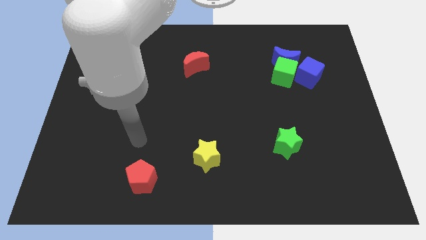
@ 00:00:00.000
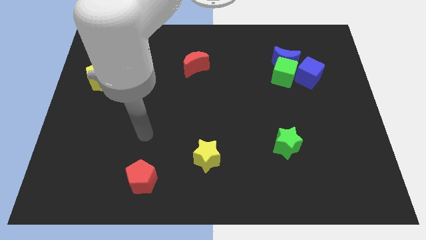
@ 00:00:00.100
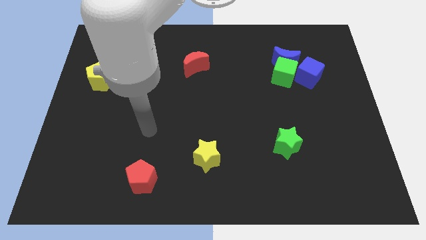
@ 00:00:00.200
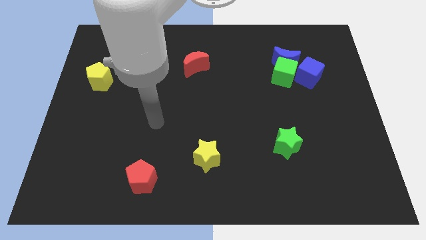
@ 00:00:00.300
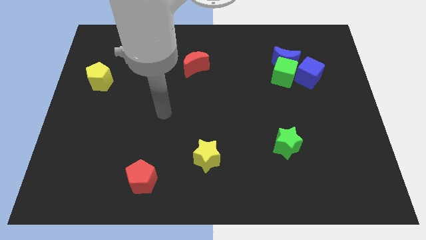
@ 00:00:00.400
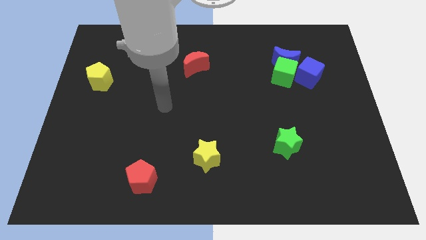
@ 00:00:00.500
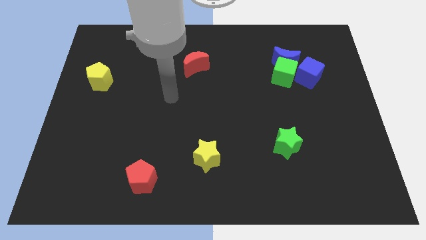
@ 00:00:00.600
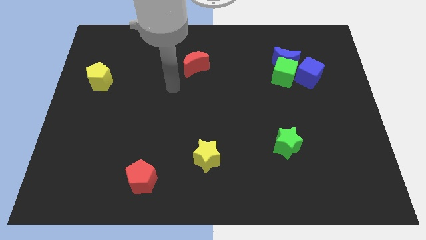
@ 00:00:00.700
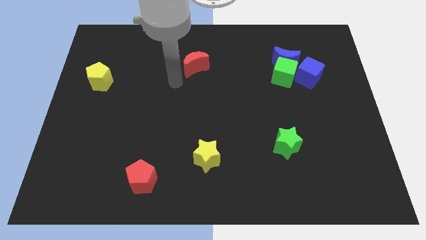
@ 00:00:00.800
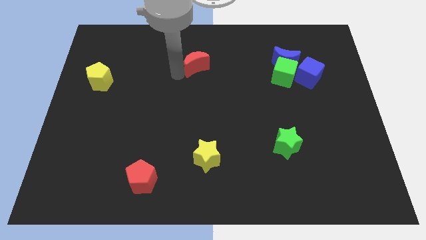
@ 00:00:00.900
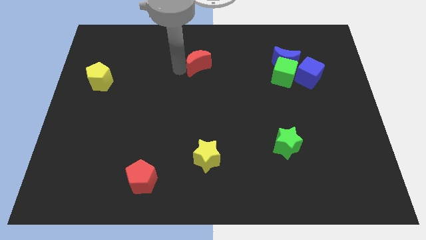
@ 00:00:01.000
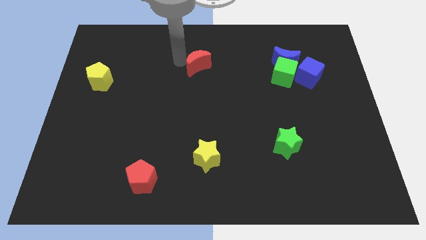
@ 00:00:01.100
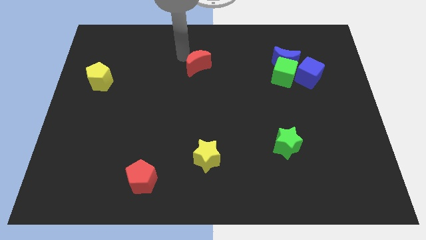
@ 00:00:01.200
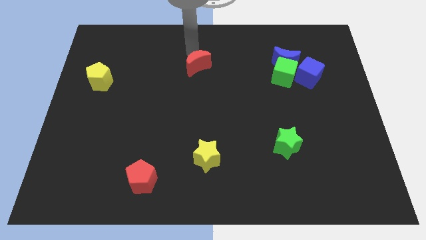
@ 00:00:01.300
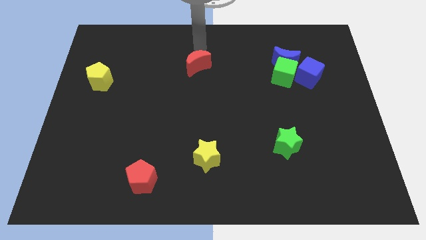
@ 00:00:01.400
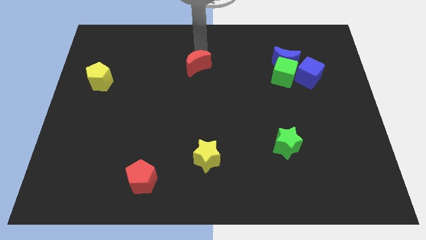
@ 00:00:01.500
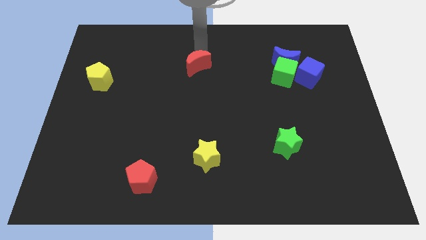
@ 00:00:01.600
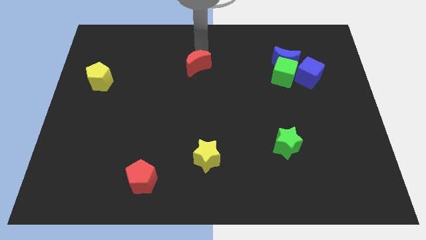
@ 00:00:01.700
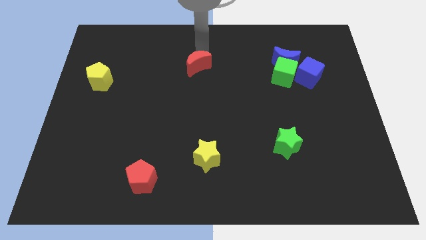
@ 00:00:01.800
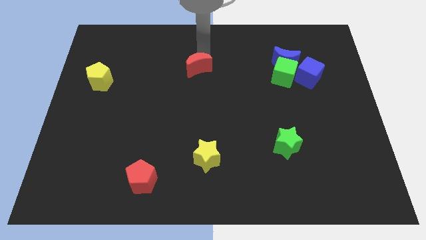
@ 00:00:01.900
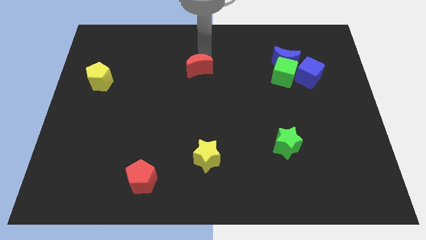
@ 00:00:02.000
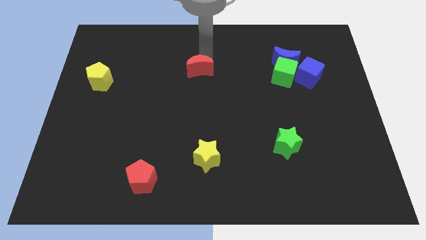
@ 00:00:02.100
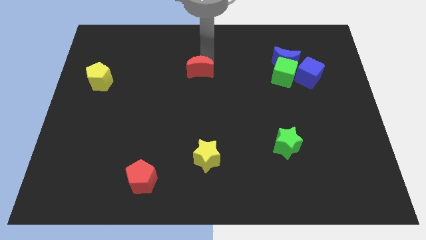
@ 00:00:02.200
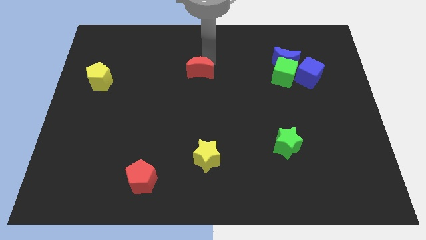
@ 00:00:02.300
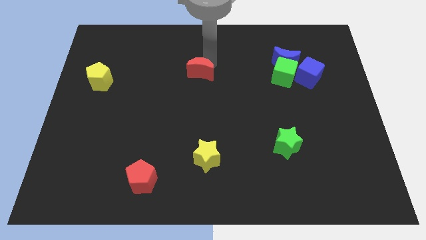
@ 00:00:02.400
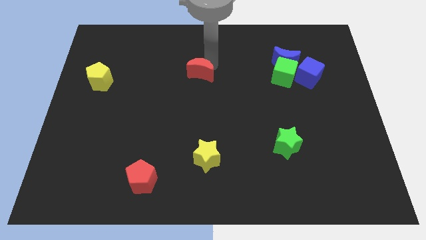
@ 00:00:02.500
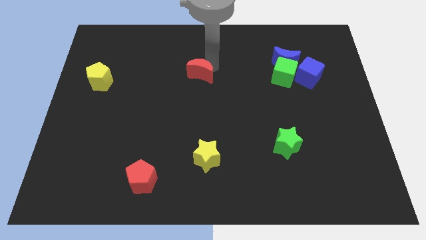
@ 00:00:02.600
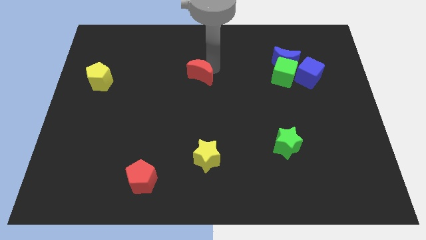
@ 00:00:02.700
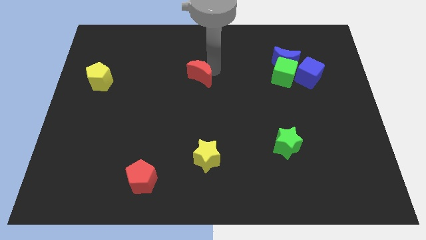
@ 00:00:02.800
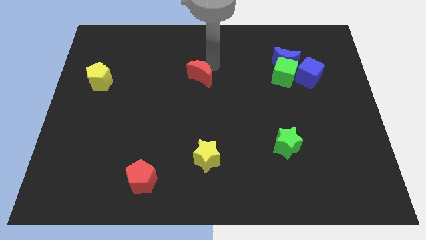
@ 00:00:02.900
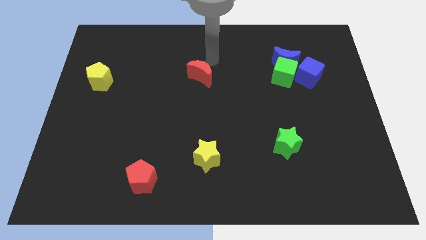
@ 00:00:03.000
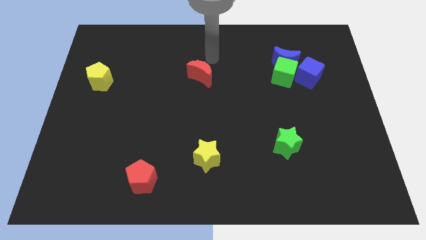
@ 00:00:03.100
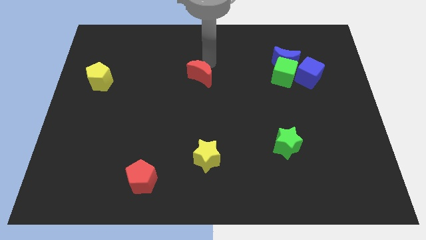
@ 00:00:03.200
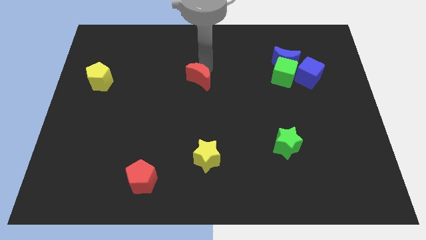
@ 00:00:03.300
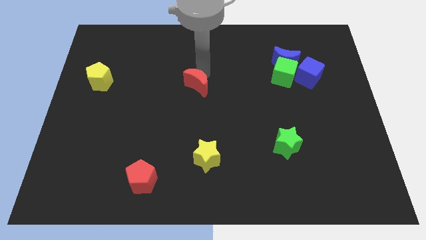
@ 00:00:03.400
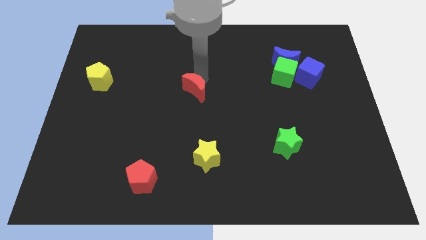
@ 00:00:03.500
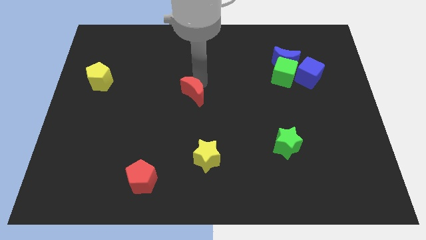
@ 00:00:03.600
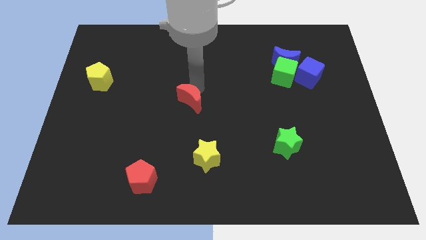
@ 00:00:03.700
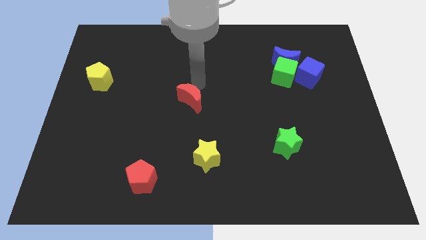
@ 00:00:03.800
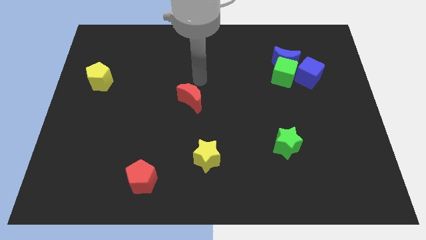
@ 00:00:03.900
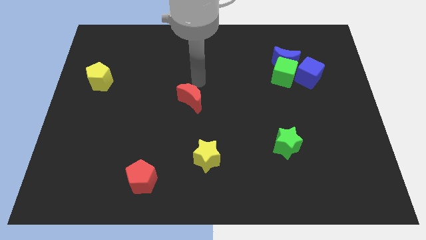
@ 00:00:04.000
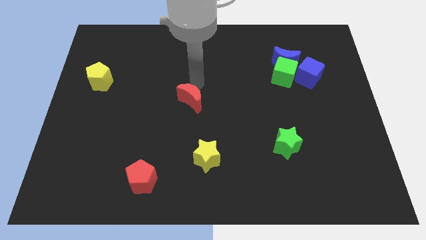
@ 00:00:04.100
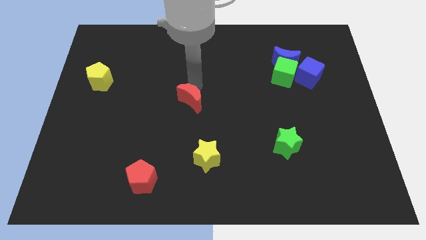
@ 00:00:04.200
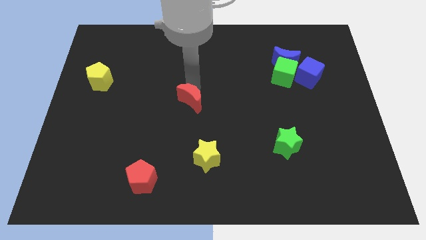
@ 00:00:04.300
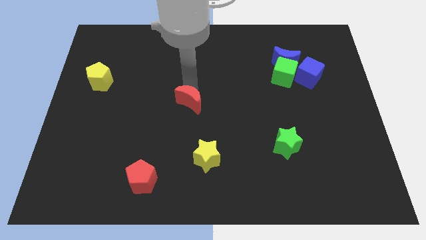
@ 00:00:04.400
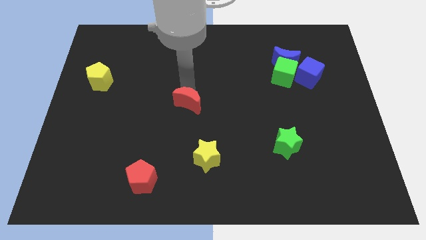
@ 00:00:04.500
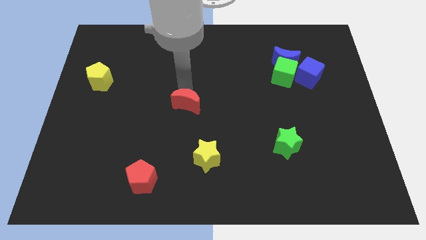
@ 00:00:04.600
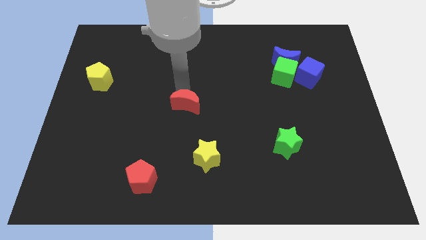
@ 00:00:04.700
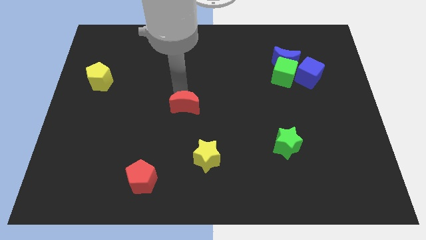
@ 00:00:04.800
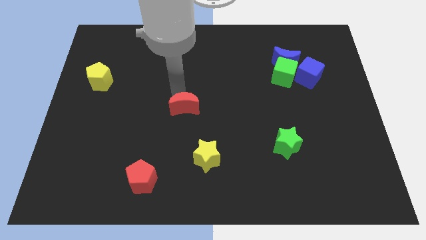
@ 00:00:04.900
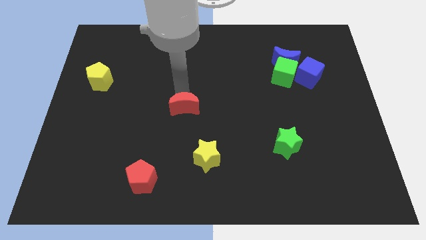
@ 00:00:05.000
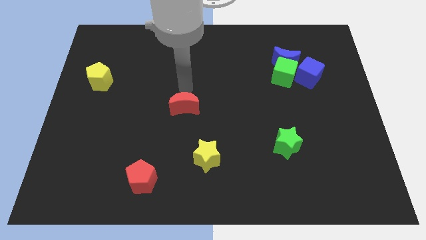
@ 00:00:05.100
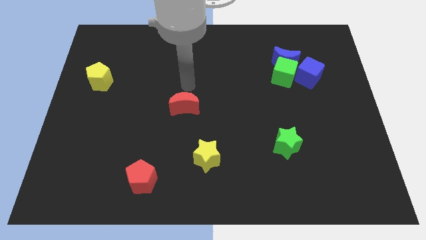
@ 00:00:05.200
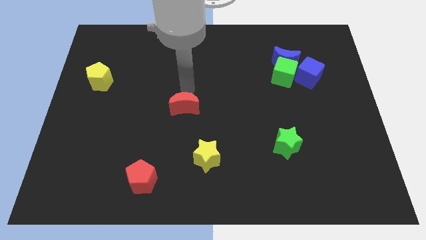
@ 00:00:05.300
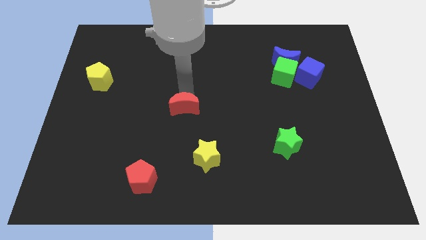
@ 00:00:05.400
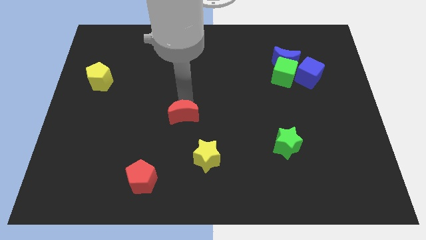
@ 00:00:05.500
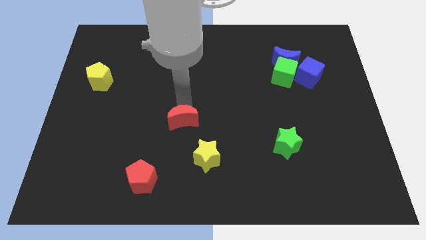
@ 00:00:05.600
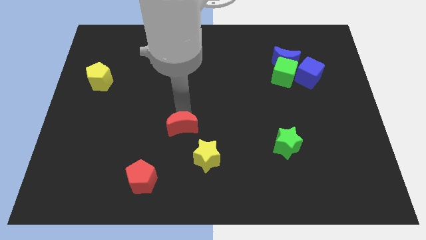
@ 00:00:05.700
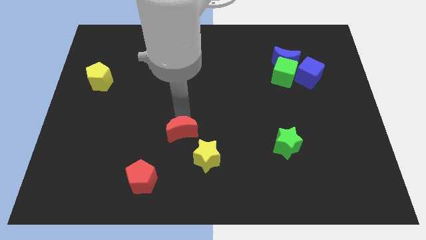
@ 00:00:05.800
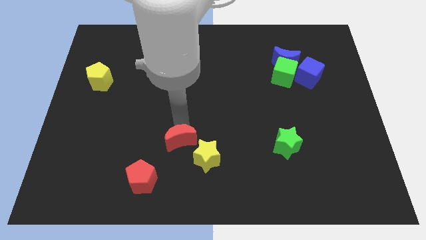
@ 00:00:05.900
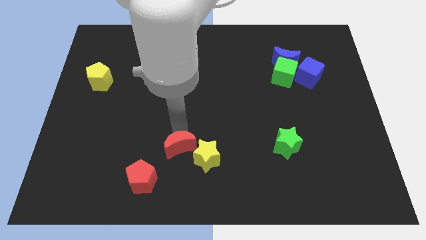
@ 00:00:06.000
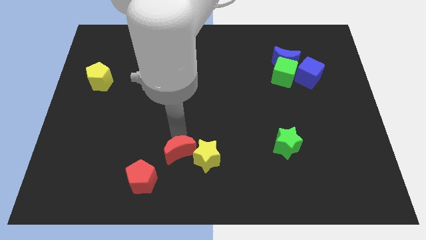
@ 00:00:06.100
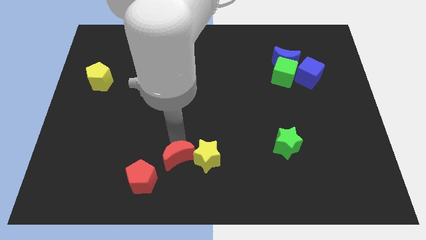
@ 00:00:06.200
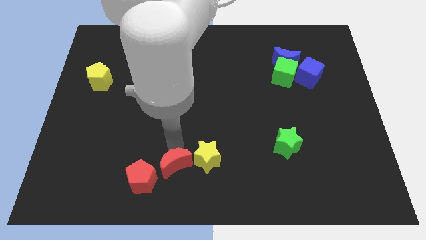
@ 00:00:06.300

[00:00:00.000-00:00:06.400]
slide the red moon to the right of the red pentagon
